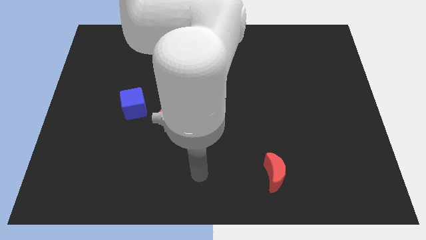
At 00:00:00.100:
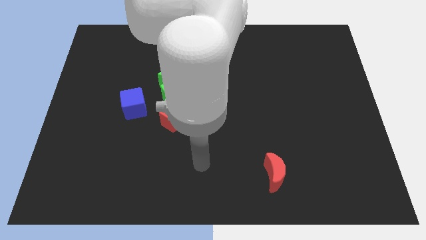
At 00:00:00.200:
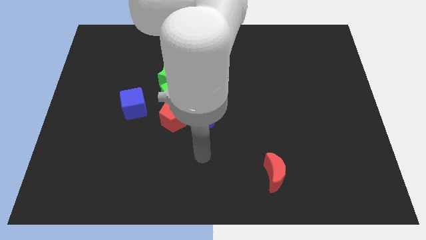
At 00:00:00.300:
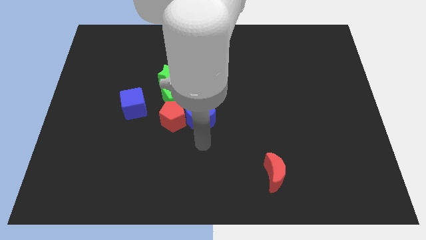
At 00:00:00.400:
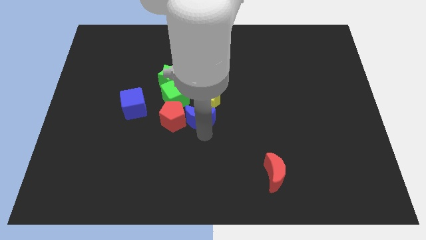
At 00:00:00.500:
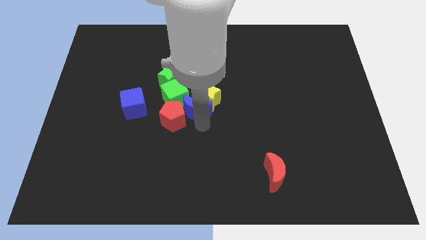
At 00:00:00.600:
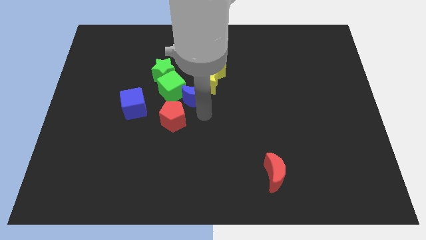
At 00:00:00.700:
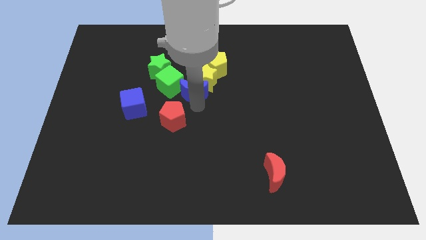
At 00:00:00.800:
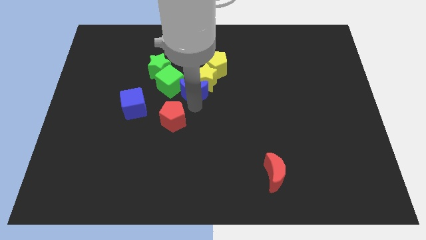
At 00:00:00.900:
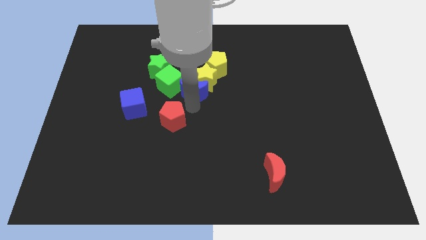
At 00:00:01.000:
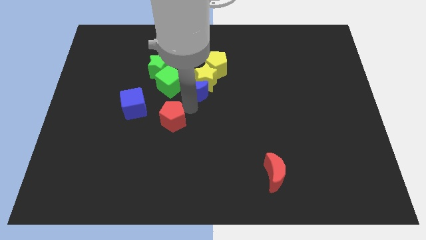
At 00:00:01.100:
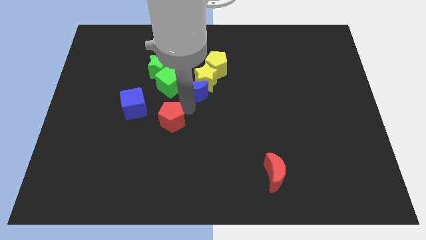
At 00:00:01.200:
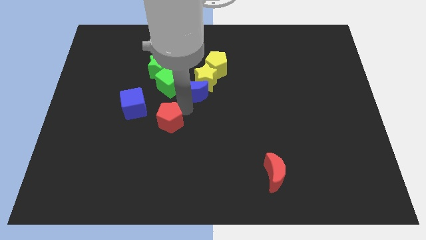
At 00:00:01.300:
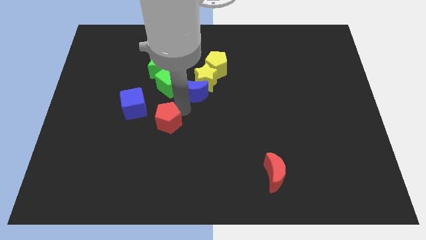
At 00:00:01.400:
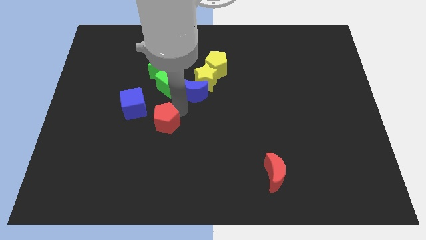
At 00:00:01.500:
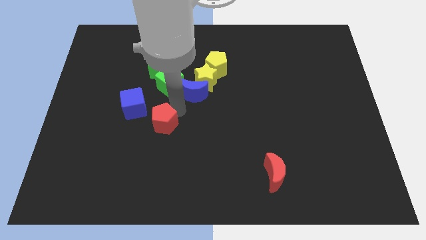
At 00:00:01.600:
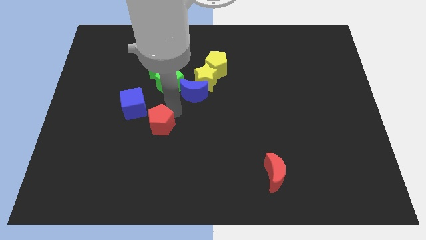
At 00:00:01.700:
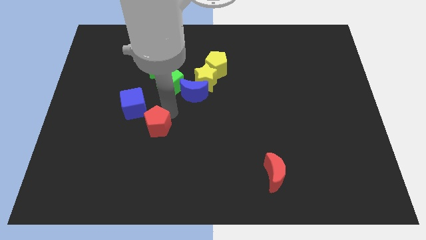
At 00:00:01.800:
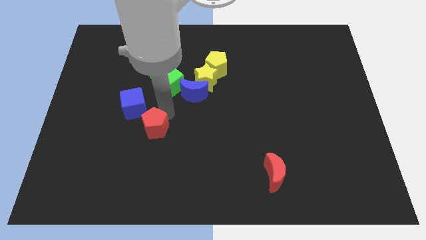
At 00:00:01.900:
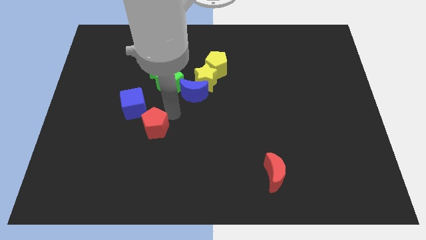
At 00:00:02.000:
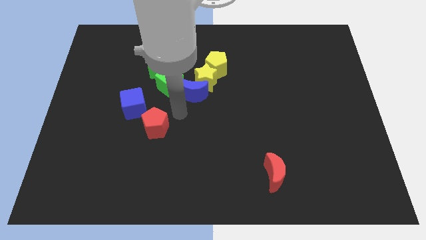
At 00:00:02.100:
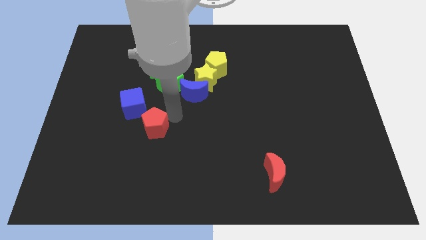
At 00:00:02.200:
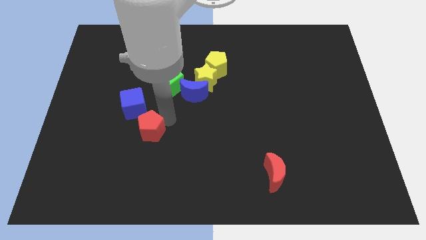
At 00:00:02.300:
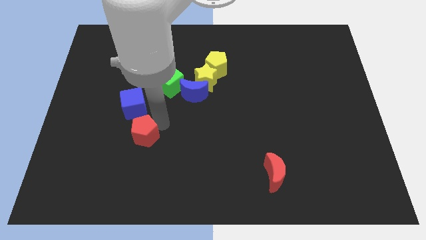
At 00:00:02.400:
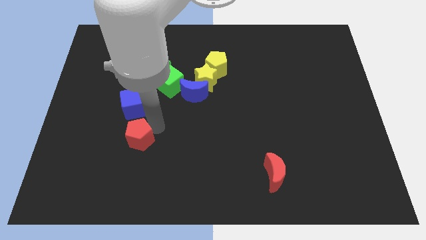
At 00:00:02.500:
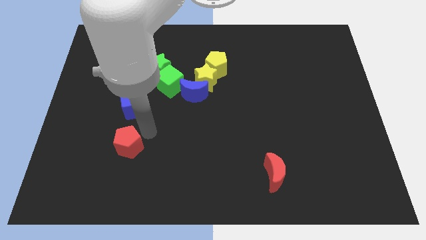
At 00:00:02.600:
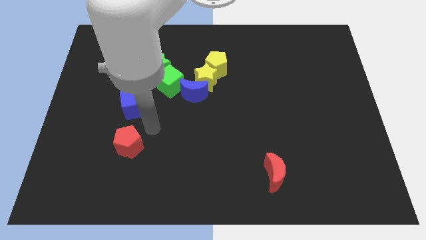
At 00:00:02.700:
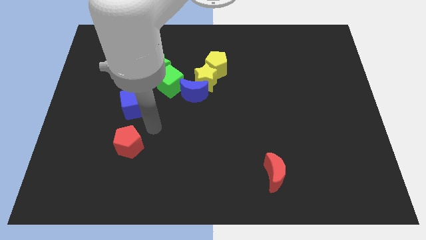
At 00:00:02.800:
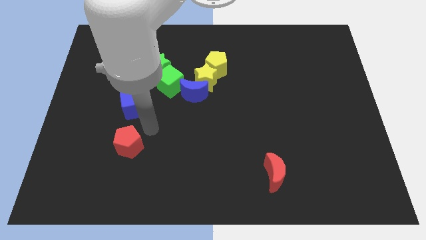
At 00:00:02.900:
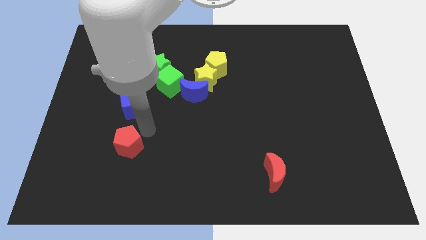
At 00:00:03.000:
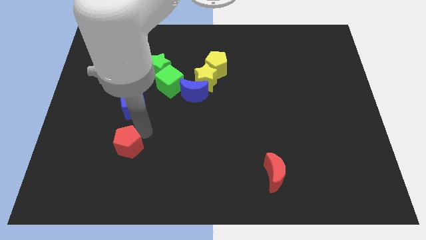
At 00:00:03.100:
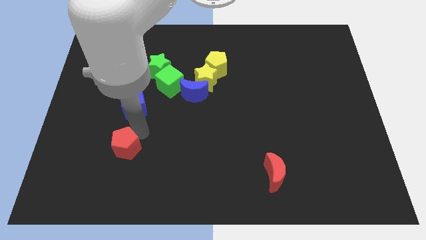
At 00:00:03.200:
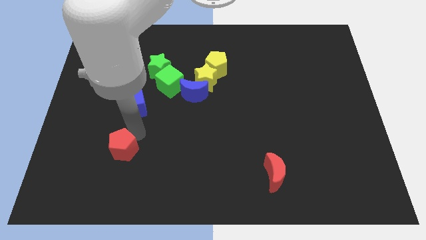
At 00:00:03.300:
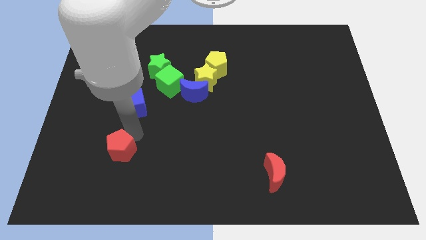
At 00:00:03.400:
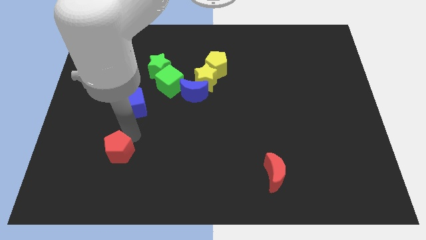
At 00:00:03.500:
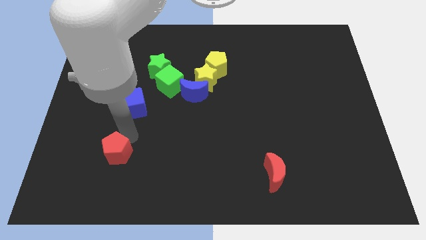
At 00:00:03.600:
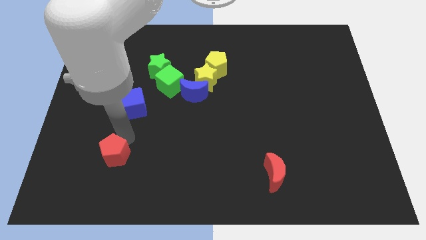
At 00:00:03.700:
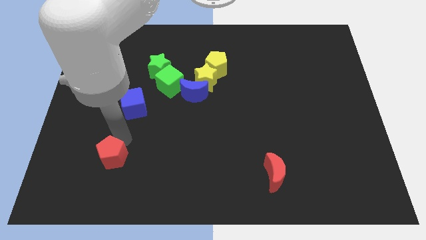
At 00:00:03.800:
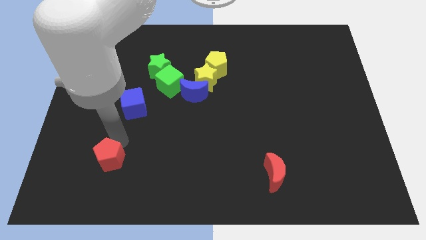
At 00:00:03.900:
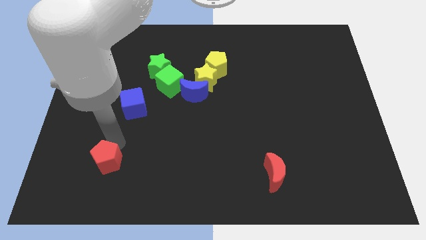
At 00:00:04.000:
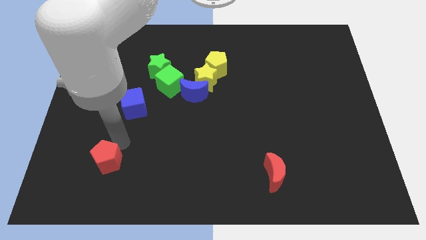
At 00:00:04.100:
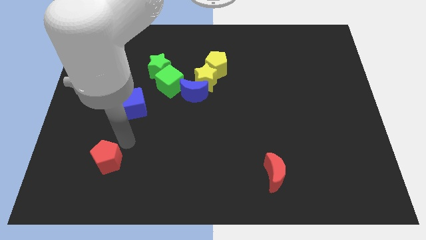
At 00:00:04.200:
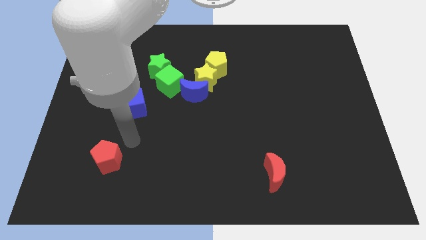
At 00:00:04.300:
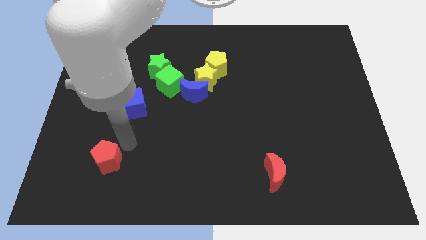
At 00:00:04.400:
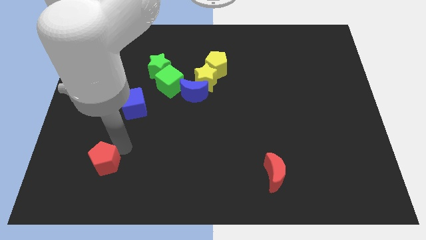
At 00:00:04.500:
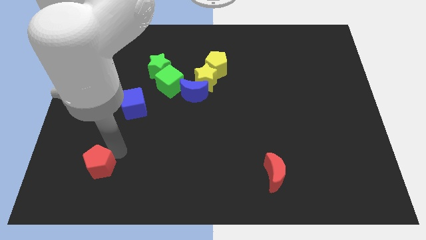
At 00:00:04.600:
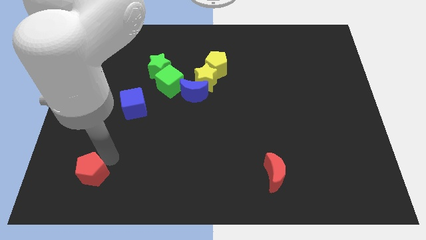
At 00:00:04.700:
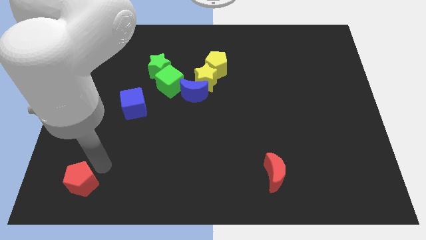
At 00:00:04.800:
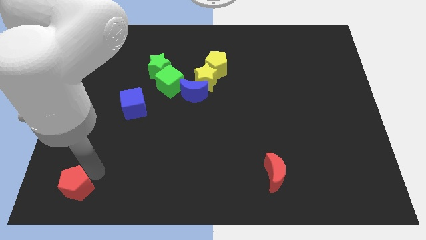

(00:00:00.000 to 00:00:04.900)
put the red pentagon to the bottom left corner

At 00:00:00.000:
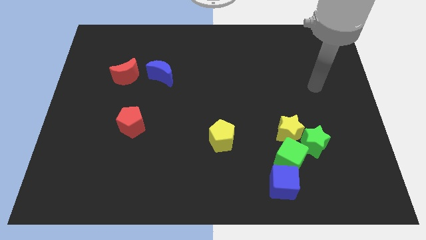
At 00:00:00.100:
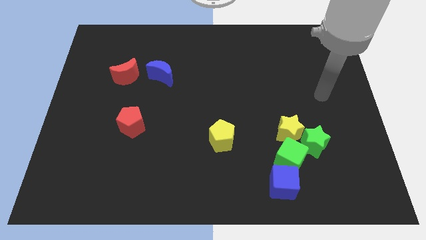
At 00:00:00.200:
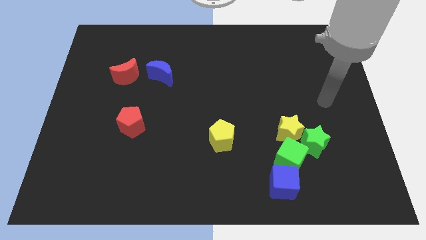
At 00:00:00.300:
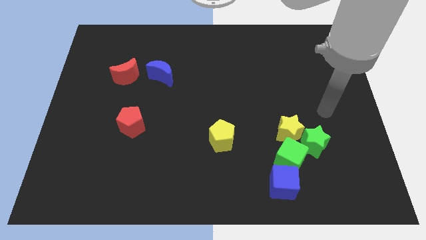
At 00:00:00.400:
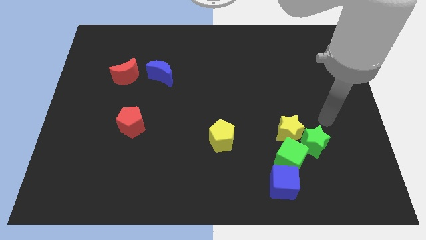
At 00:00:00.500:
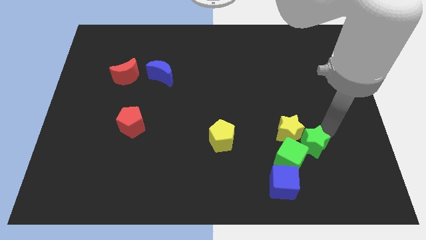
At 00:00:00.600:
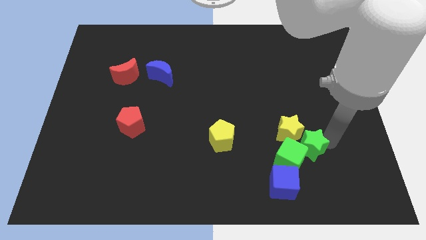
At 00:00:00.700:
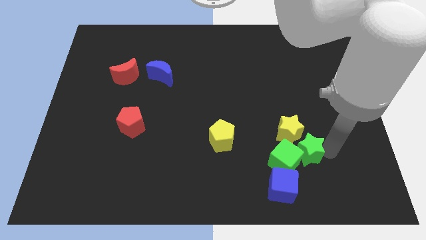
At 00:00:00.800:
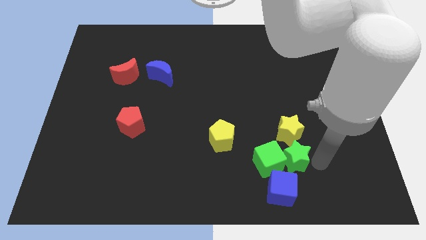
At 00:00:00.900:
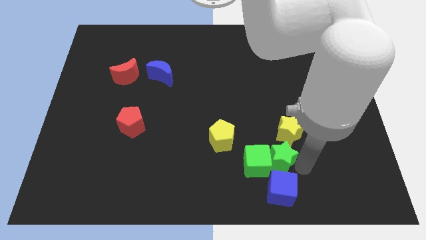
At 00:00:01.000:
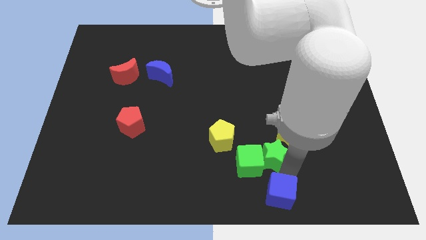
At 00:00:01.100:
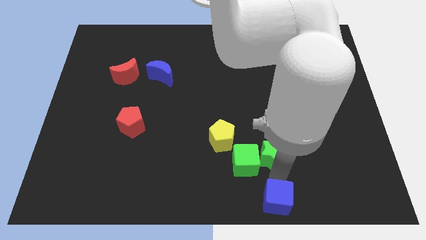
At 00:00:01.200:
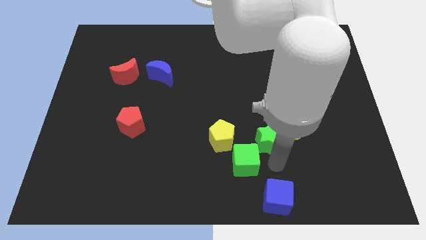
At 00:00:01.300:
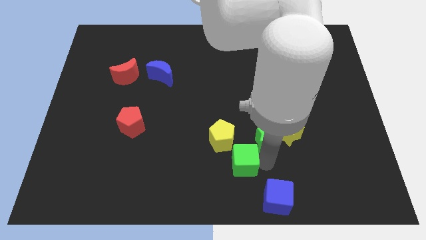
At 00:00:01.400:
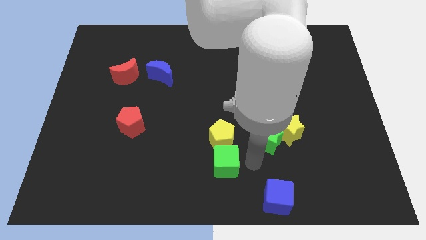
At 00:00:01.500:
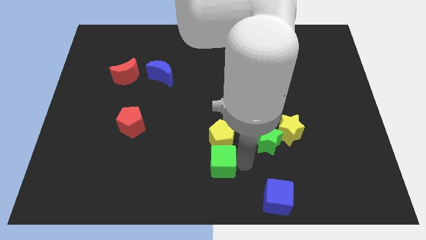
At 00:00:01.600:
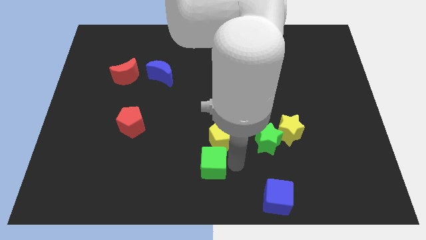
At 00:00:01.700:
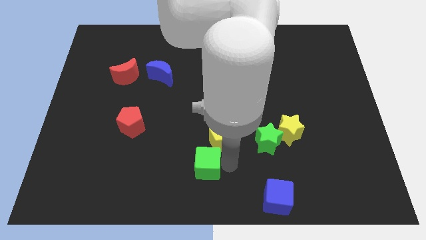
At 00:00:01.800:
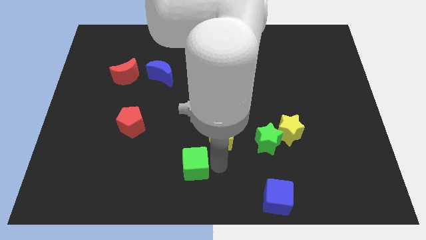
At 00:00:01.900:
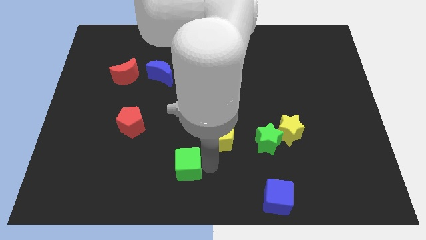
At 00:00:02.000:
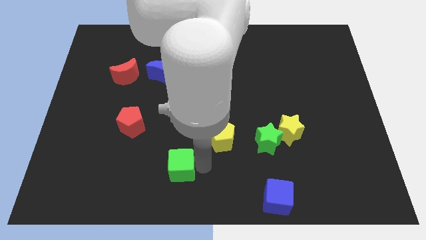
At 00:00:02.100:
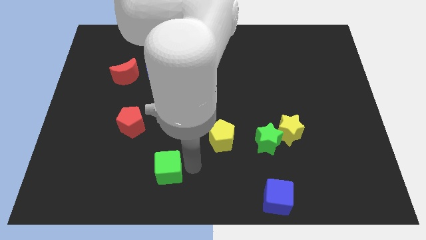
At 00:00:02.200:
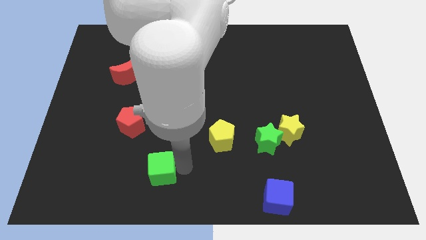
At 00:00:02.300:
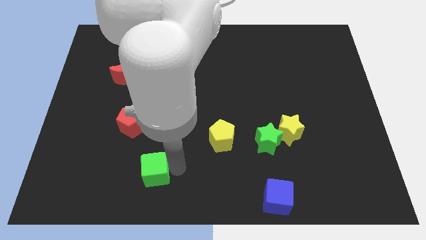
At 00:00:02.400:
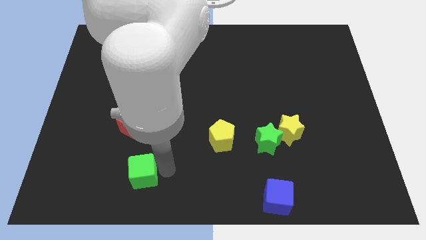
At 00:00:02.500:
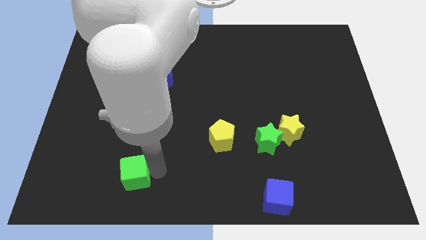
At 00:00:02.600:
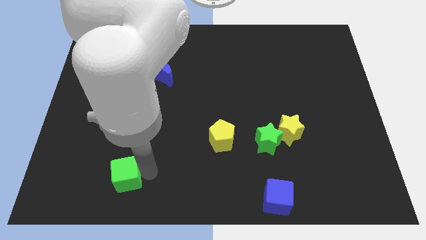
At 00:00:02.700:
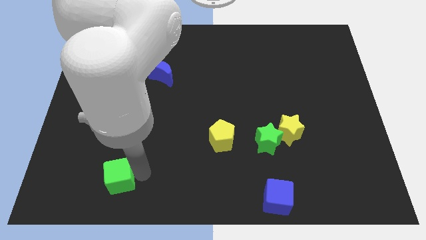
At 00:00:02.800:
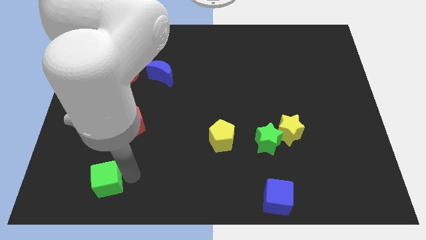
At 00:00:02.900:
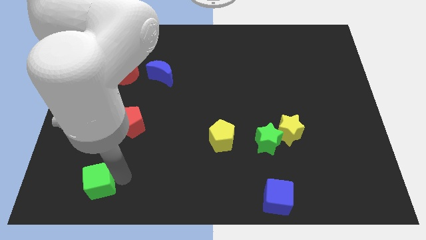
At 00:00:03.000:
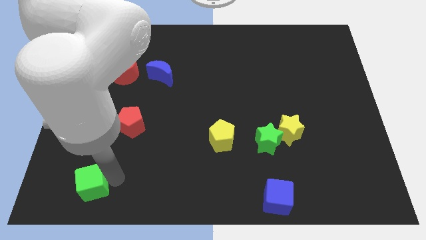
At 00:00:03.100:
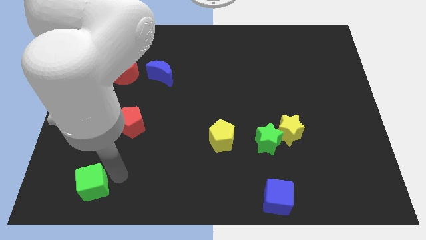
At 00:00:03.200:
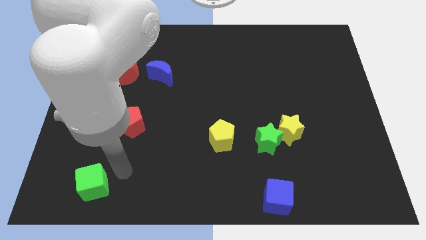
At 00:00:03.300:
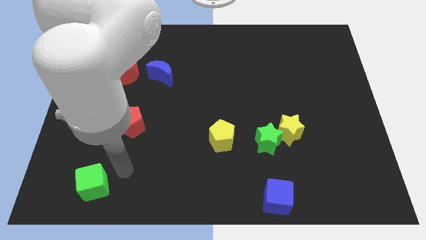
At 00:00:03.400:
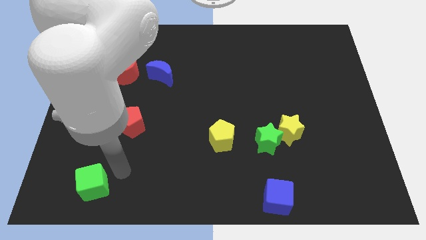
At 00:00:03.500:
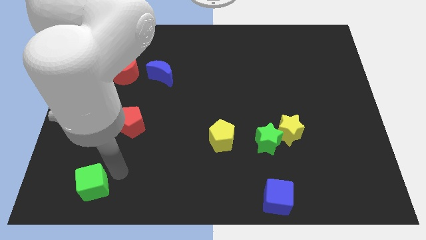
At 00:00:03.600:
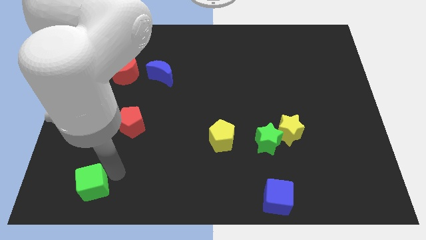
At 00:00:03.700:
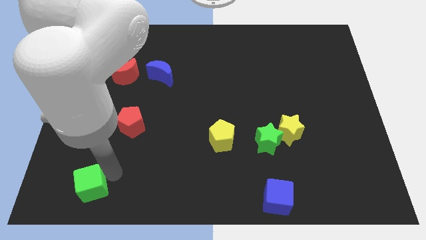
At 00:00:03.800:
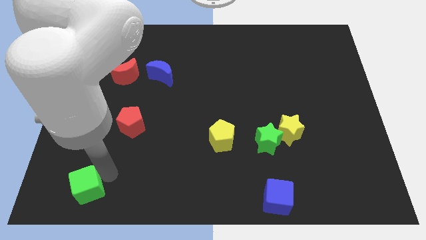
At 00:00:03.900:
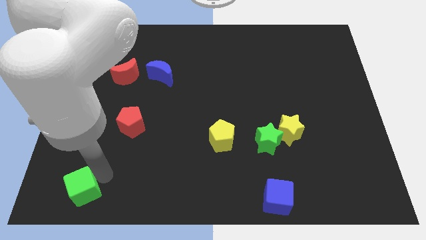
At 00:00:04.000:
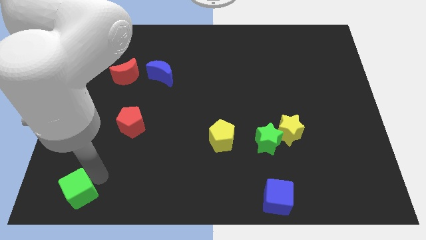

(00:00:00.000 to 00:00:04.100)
put the green cube to the bottom left corner
